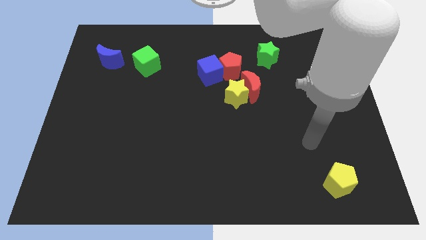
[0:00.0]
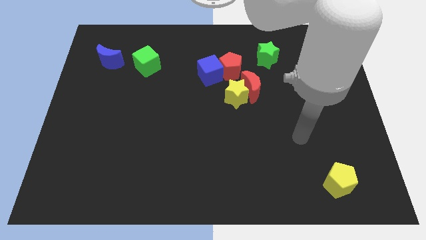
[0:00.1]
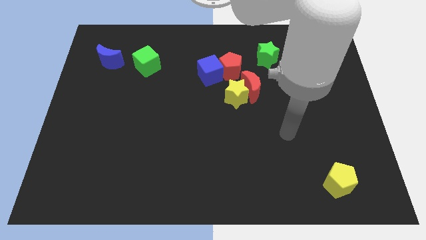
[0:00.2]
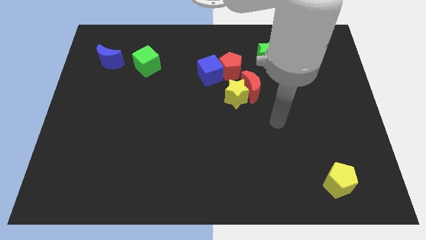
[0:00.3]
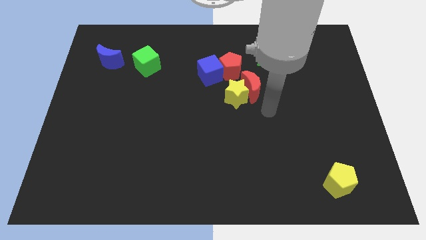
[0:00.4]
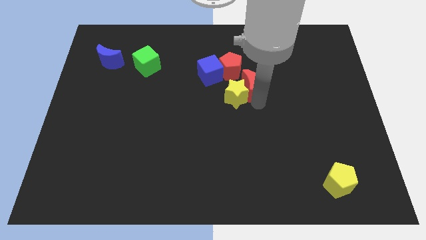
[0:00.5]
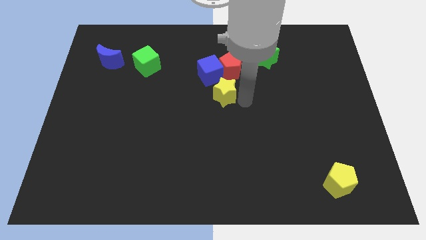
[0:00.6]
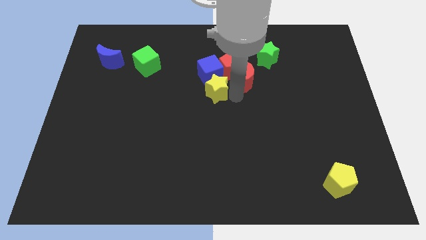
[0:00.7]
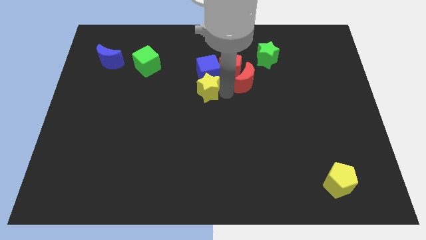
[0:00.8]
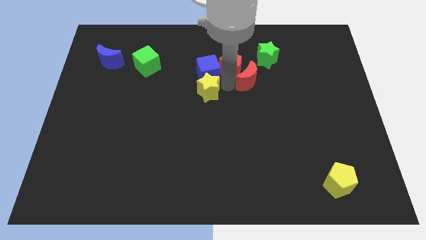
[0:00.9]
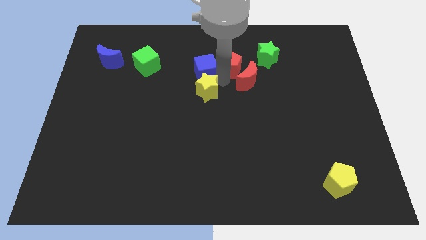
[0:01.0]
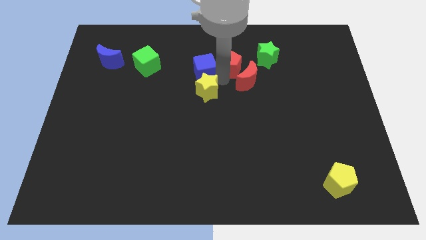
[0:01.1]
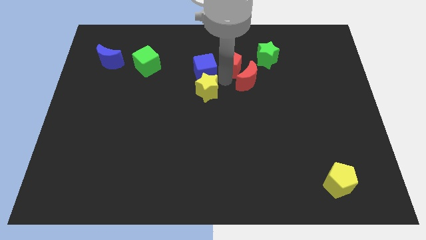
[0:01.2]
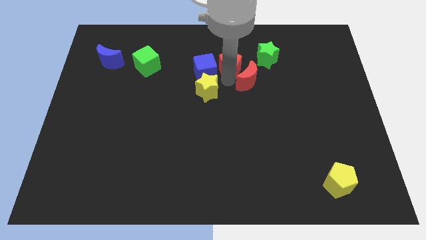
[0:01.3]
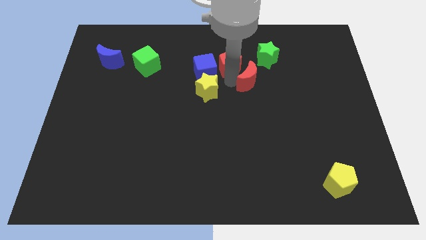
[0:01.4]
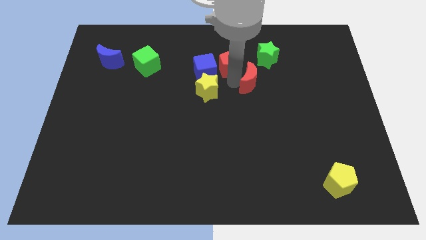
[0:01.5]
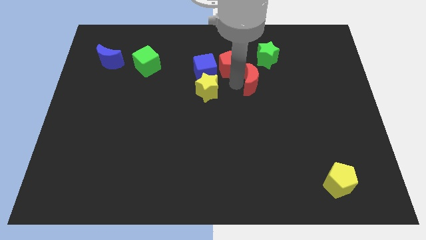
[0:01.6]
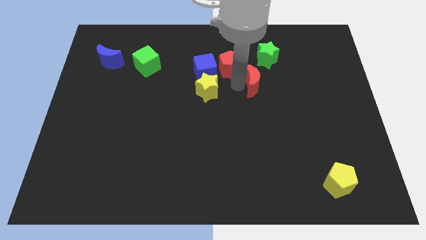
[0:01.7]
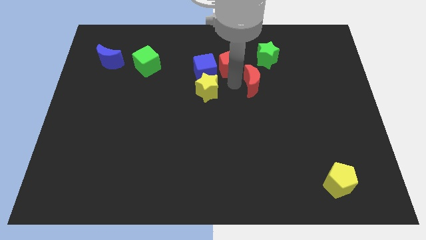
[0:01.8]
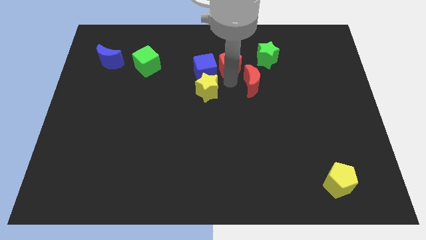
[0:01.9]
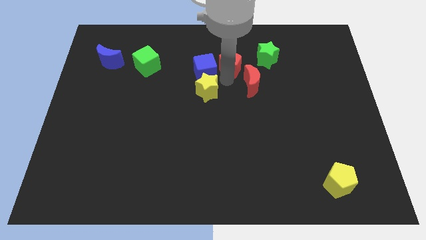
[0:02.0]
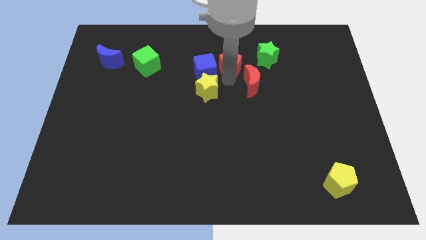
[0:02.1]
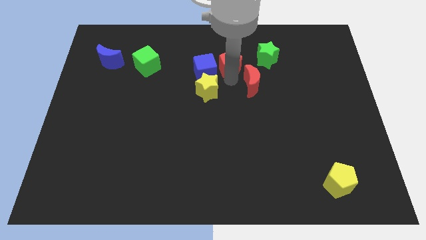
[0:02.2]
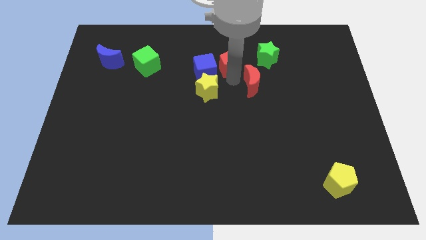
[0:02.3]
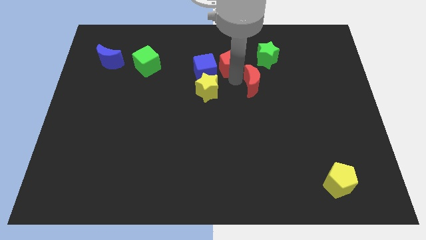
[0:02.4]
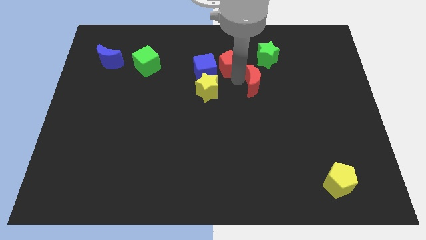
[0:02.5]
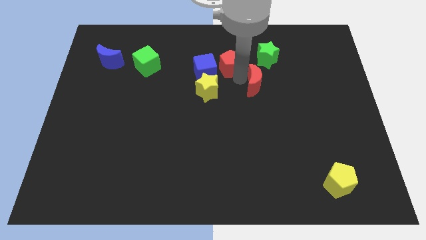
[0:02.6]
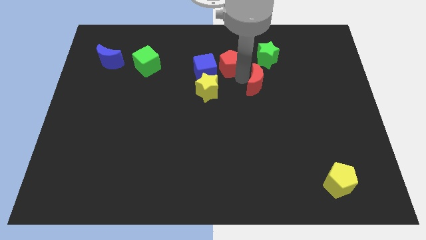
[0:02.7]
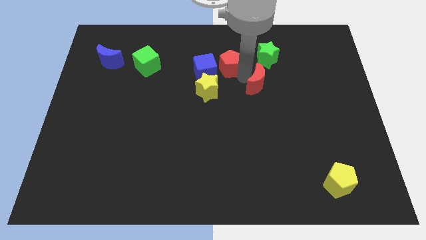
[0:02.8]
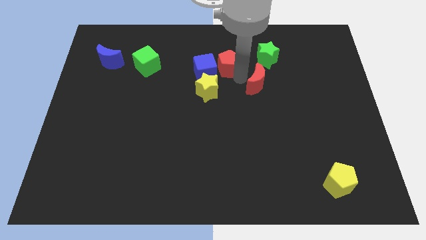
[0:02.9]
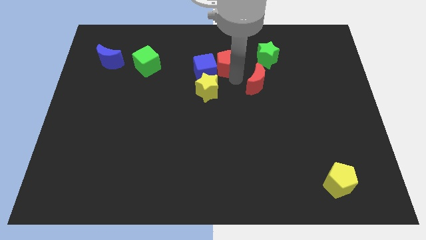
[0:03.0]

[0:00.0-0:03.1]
pull the red moon apart from the yellow star and red pentagon

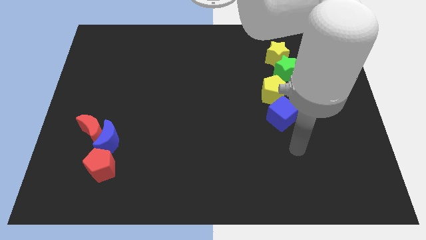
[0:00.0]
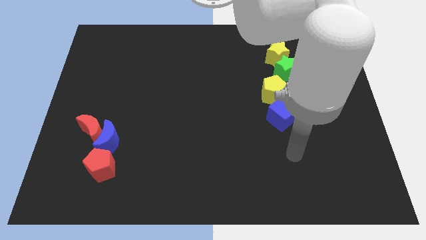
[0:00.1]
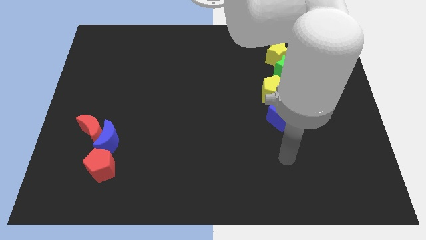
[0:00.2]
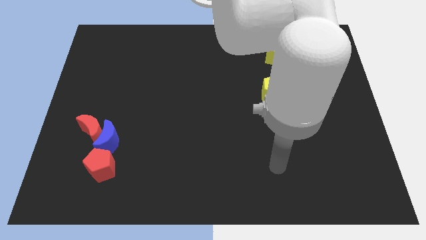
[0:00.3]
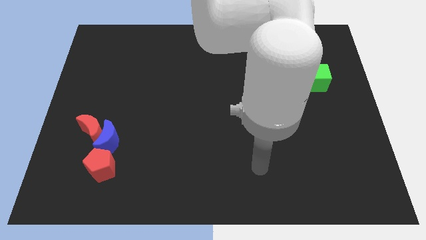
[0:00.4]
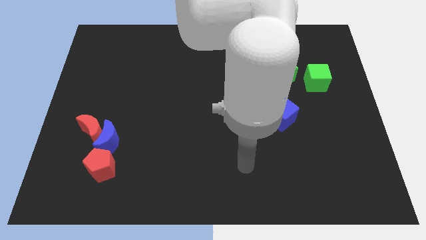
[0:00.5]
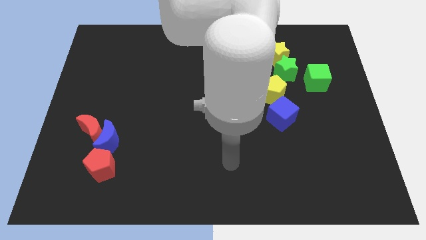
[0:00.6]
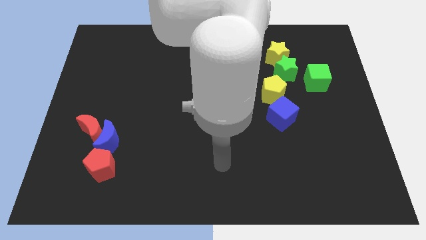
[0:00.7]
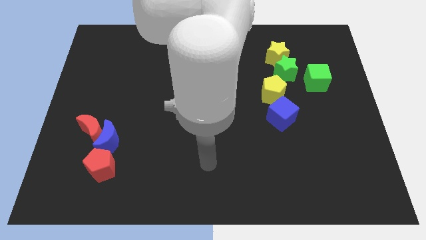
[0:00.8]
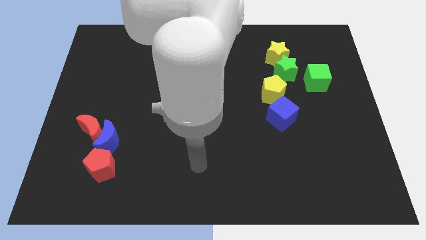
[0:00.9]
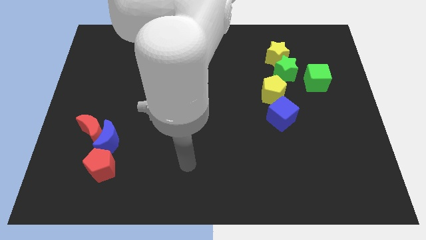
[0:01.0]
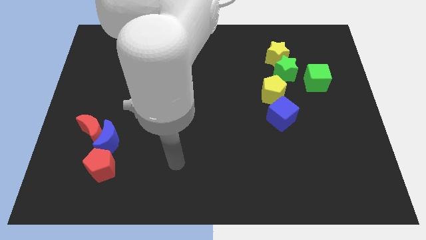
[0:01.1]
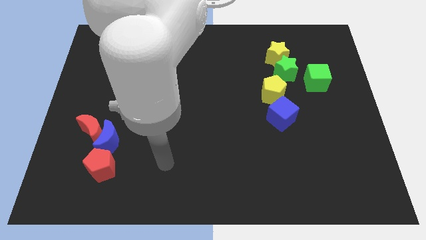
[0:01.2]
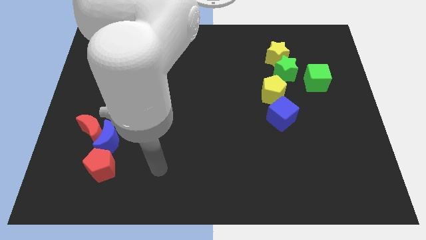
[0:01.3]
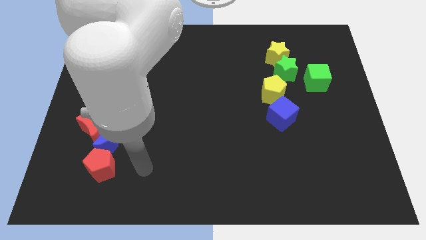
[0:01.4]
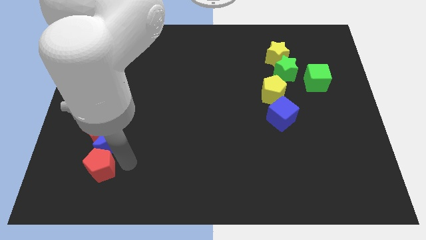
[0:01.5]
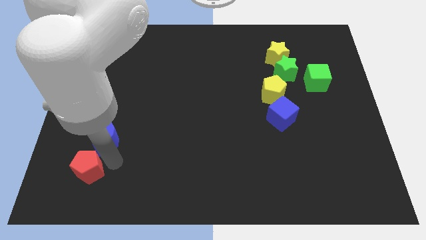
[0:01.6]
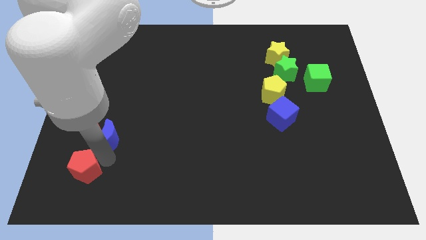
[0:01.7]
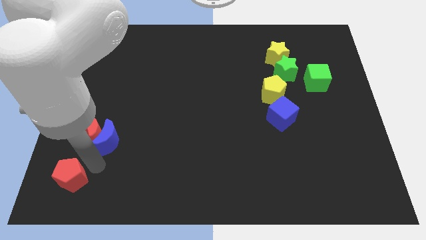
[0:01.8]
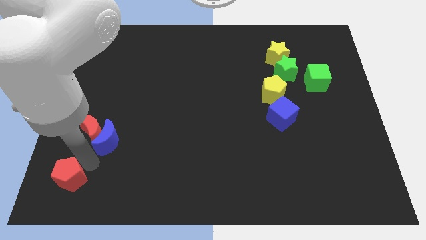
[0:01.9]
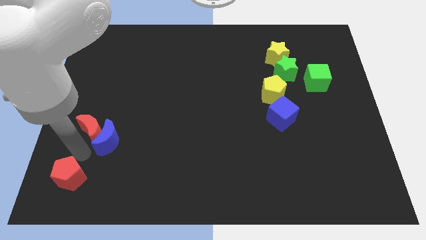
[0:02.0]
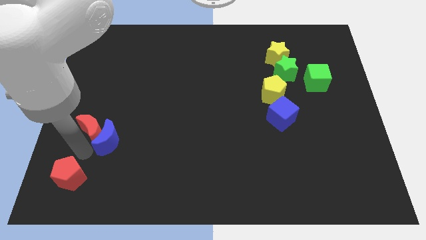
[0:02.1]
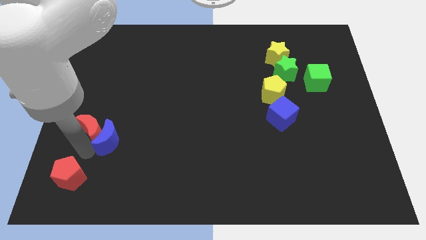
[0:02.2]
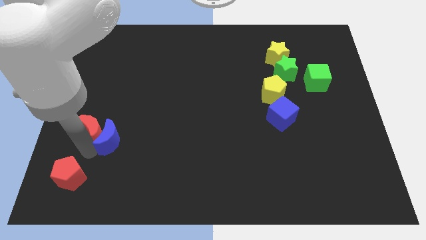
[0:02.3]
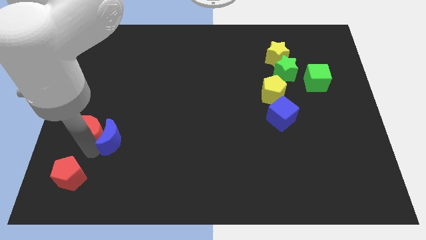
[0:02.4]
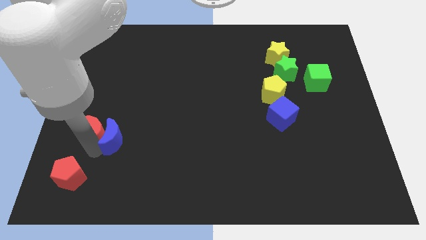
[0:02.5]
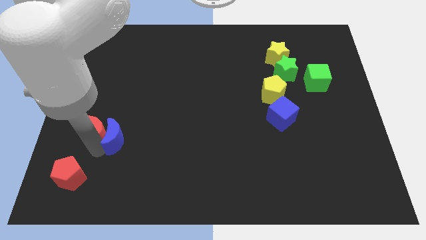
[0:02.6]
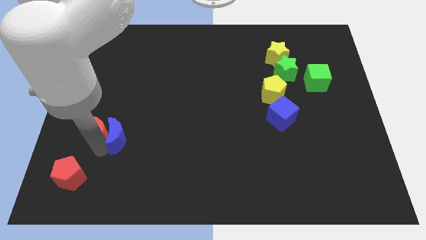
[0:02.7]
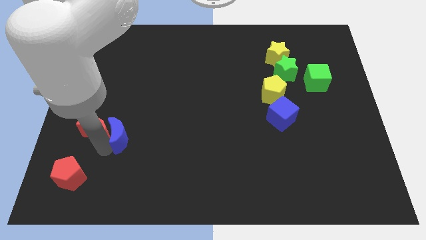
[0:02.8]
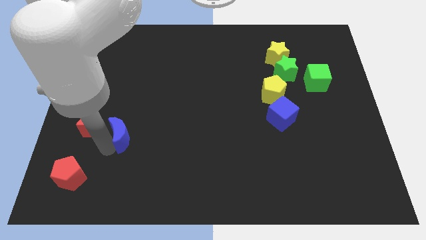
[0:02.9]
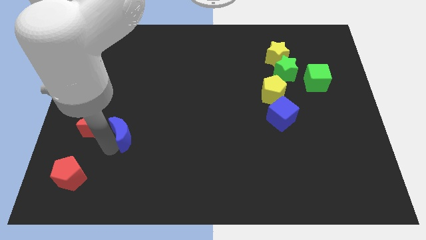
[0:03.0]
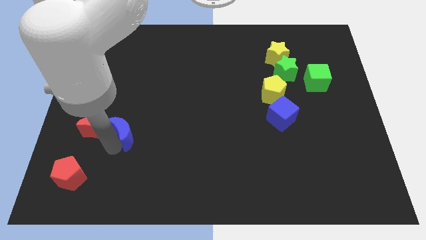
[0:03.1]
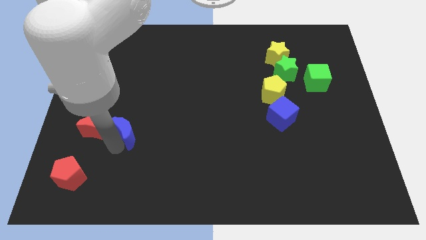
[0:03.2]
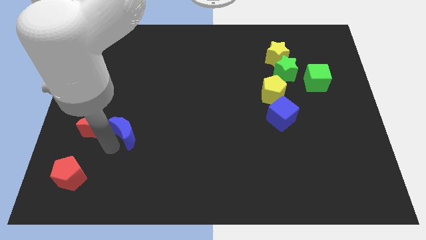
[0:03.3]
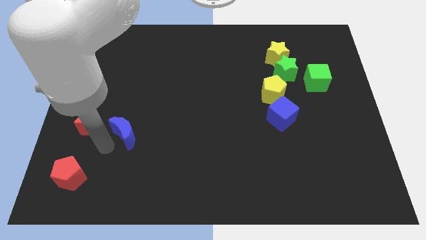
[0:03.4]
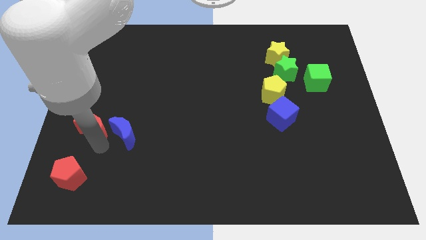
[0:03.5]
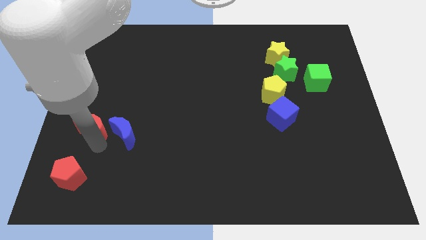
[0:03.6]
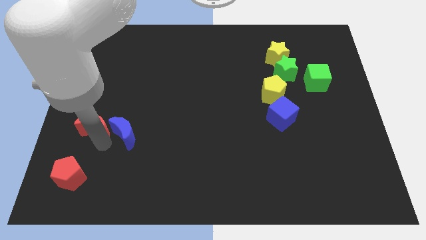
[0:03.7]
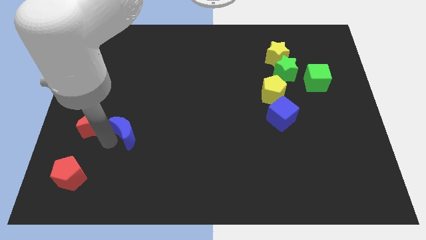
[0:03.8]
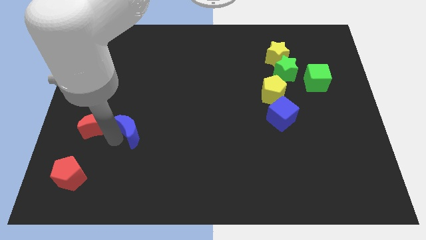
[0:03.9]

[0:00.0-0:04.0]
pull the blue moon apart from the red moon and red pentagon

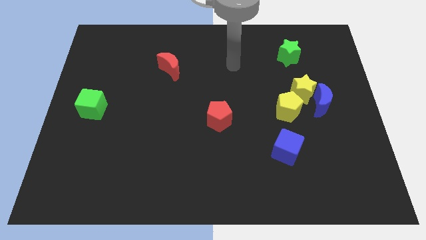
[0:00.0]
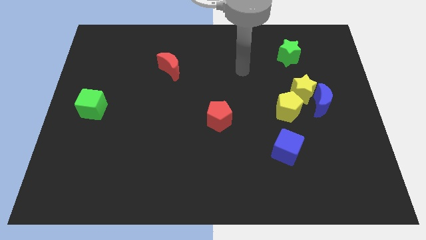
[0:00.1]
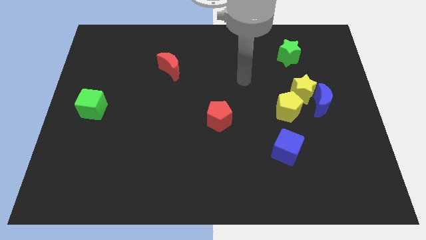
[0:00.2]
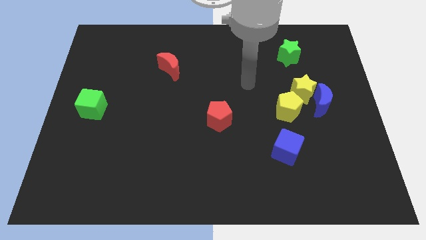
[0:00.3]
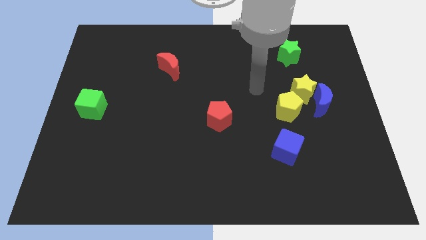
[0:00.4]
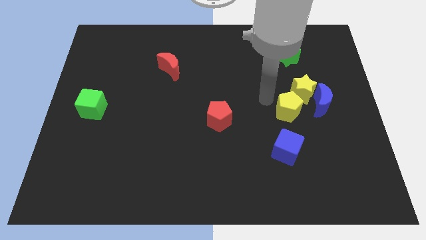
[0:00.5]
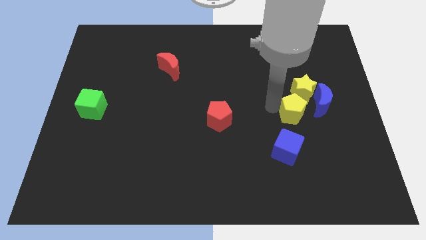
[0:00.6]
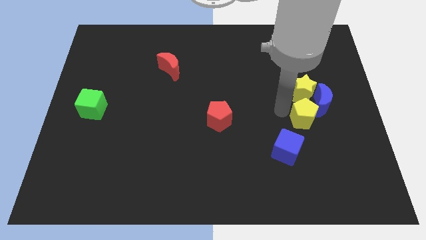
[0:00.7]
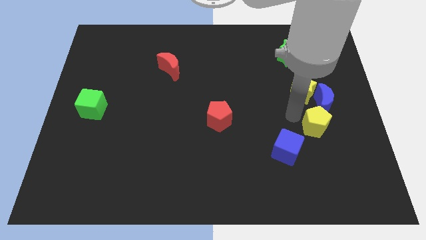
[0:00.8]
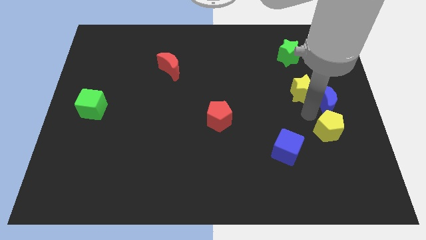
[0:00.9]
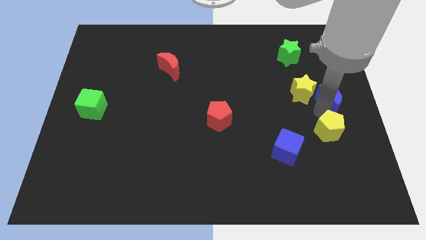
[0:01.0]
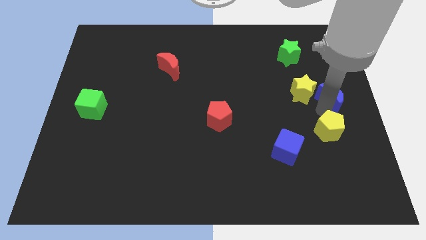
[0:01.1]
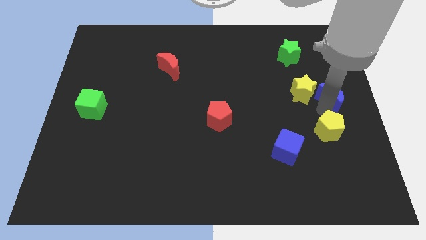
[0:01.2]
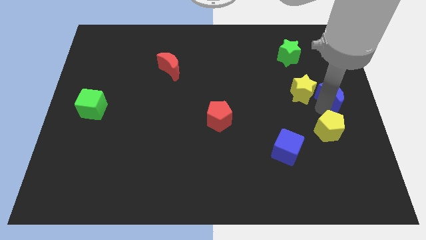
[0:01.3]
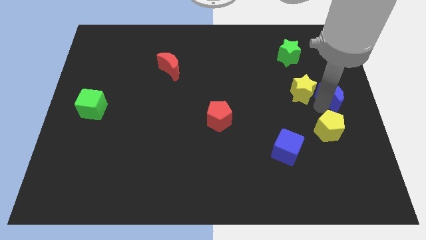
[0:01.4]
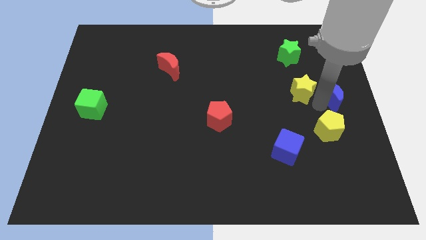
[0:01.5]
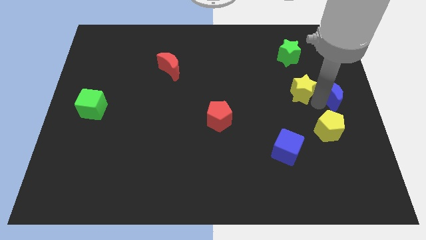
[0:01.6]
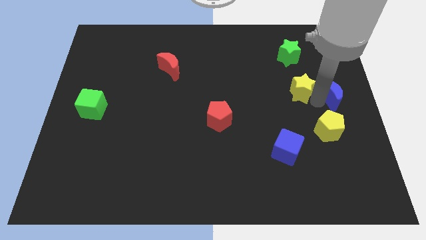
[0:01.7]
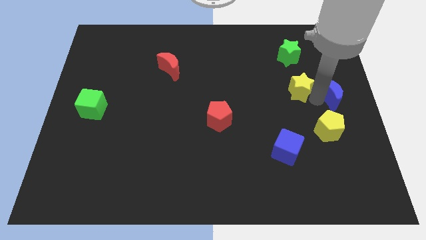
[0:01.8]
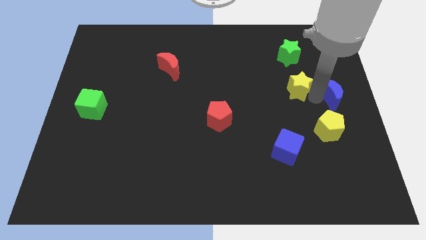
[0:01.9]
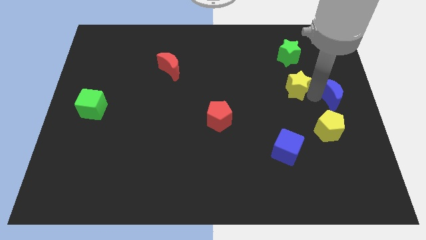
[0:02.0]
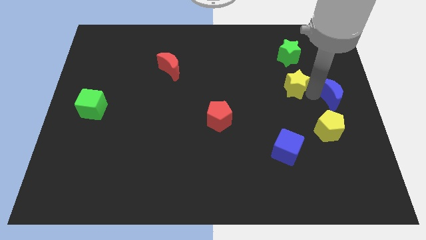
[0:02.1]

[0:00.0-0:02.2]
separate the yellow star from the blue moon and yellow pentagon

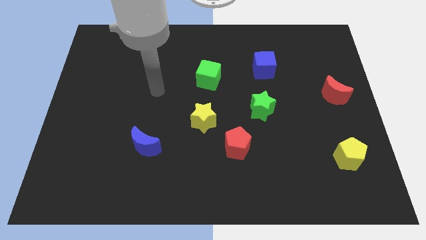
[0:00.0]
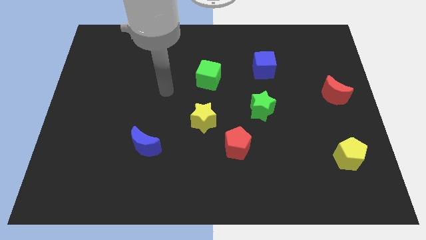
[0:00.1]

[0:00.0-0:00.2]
move the red pentagon away from the yellow star
